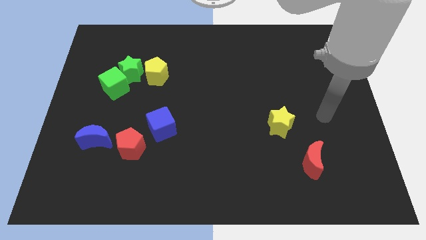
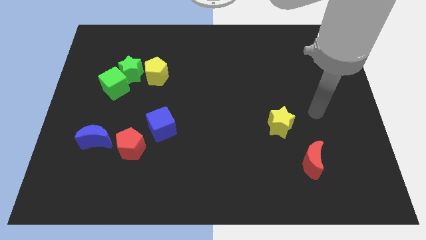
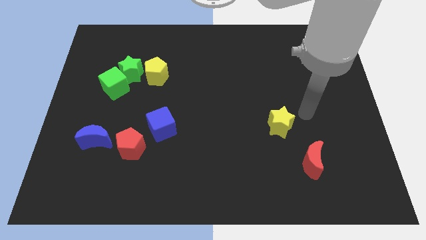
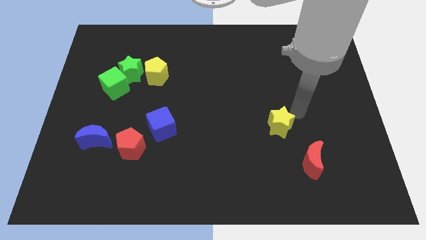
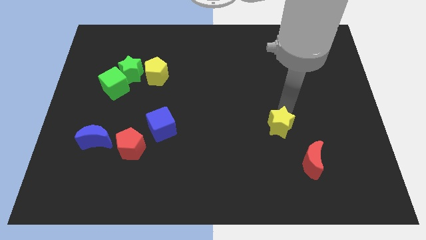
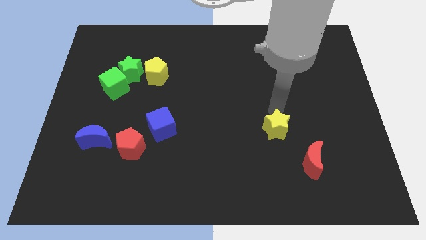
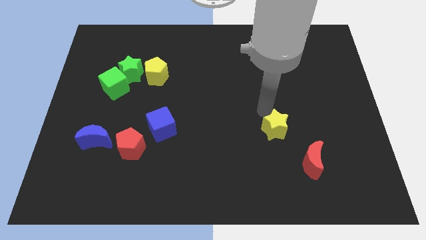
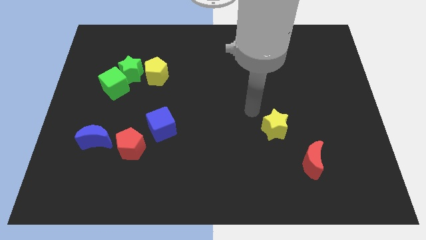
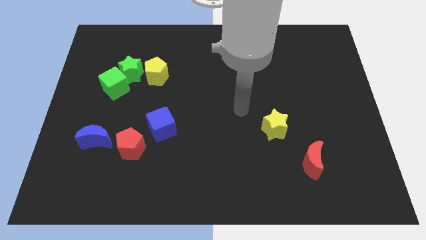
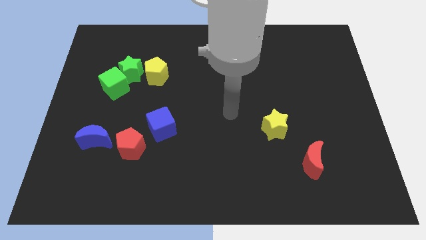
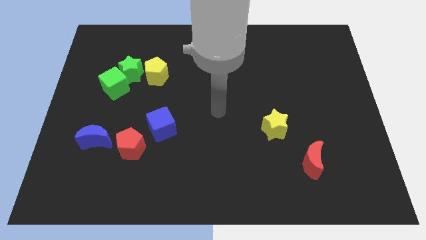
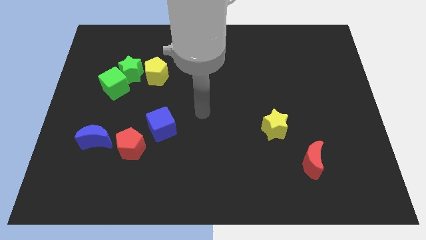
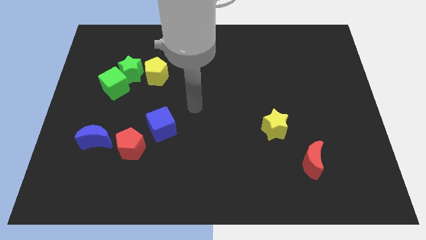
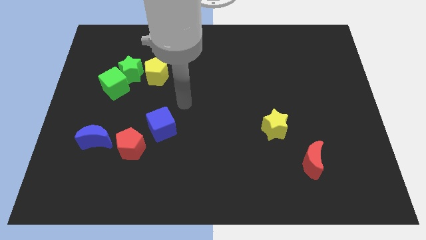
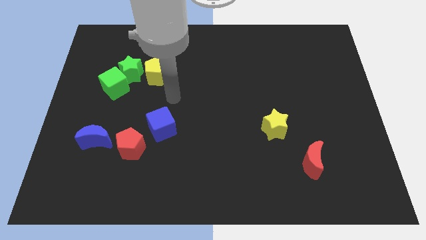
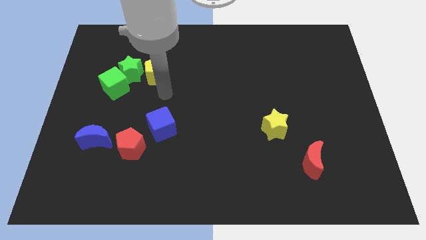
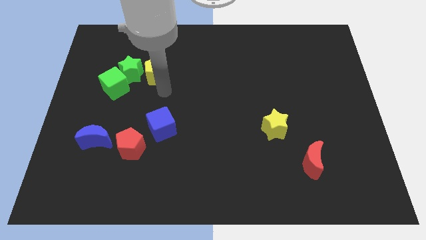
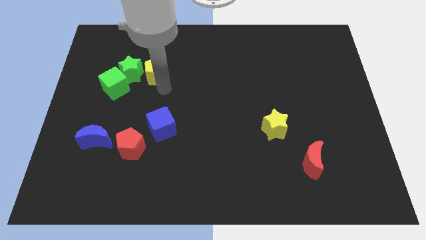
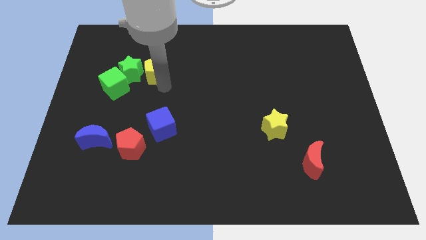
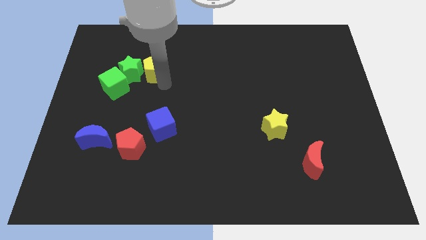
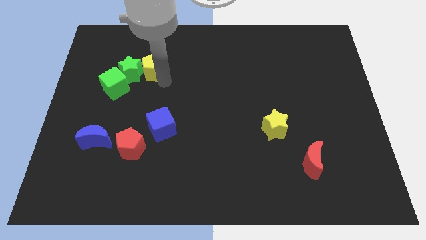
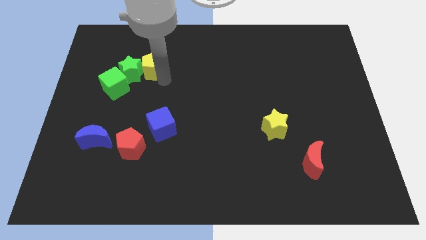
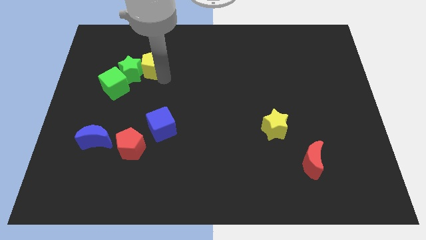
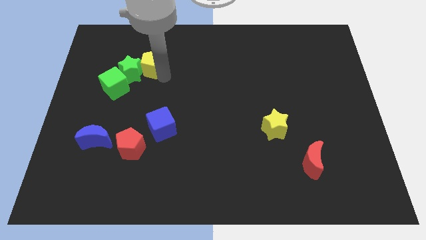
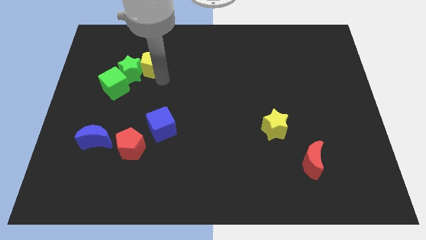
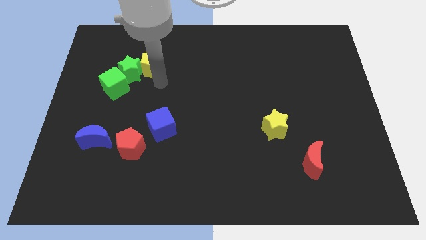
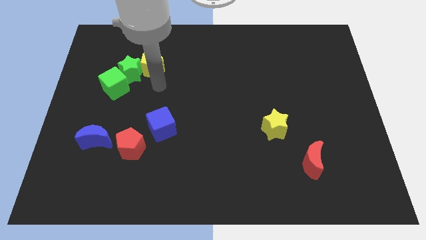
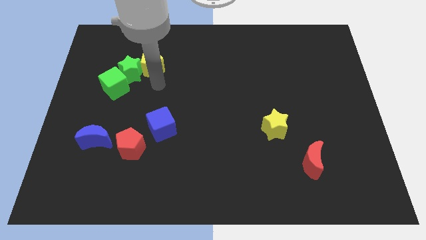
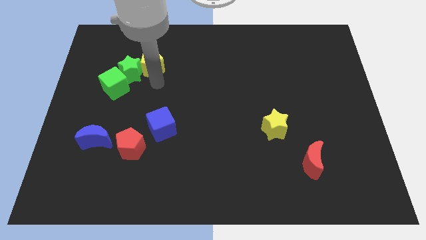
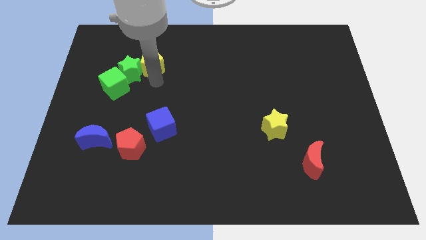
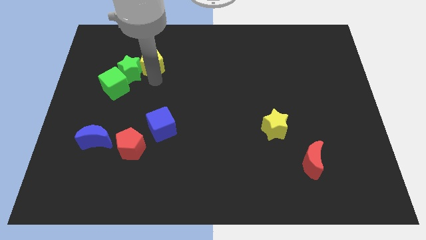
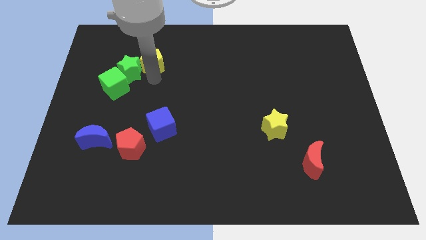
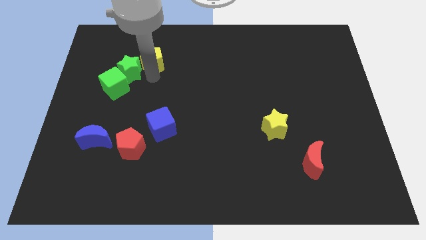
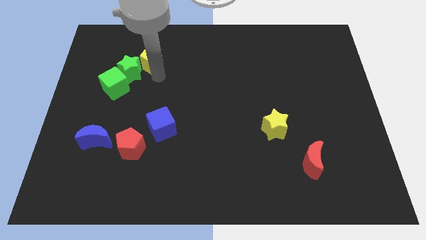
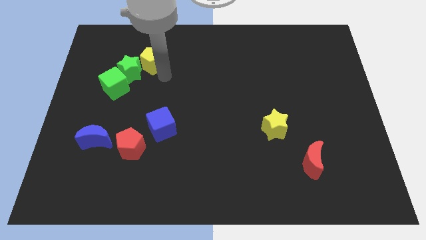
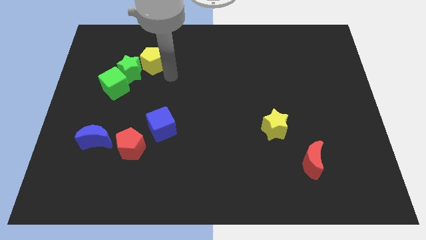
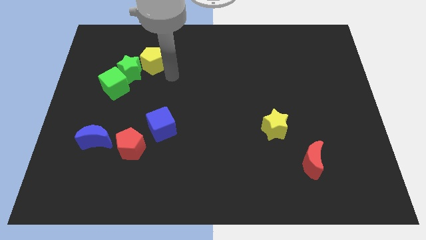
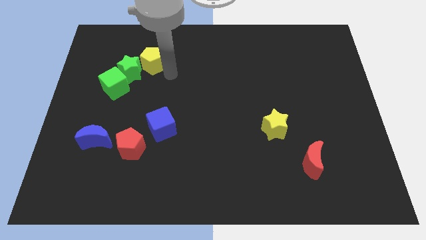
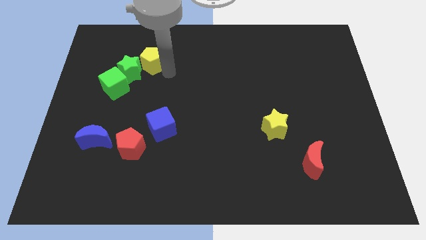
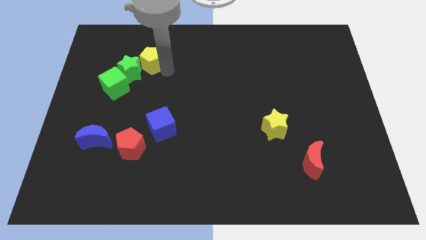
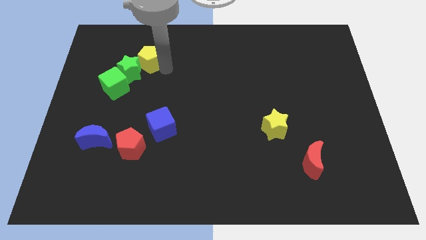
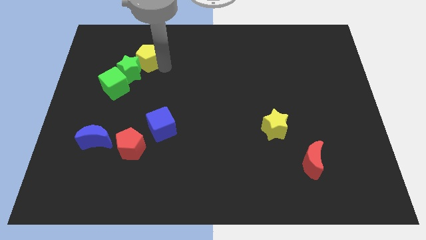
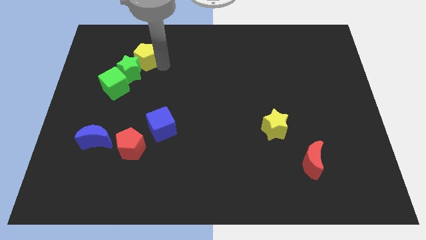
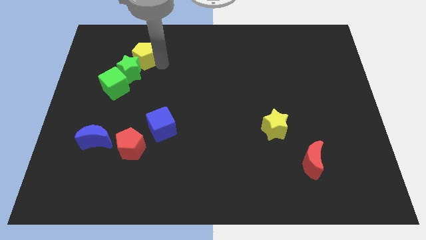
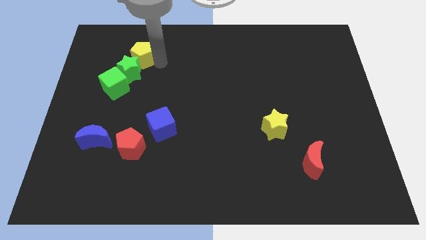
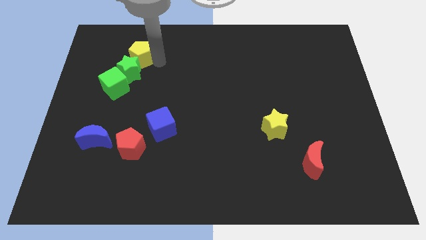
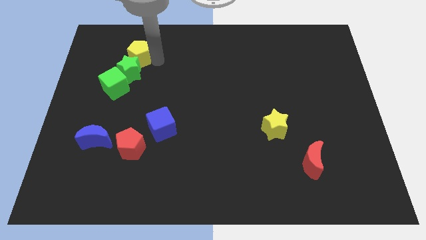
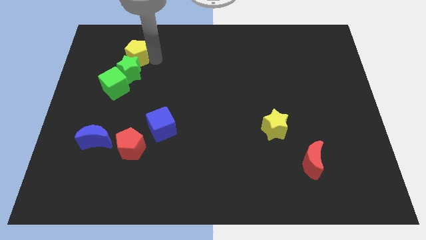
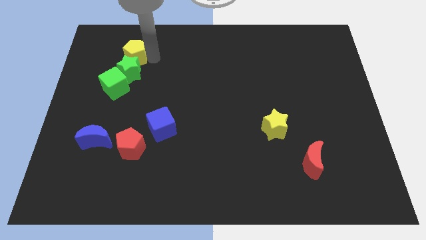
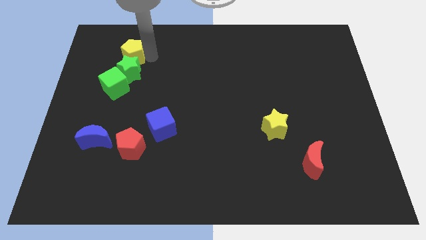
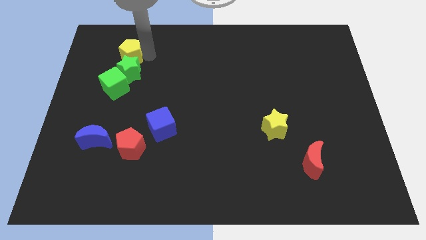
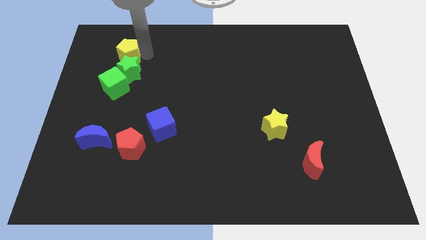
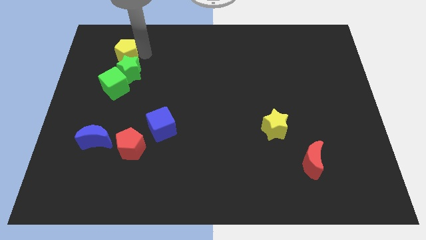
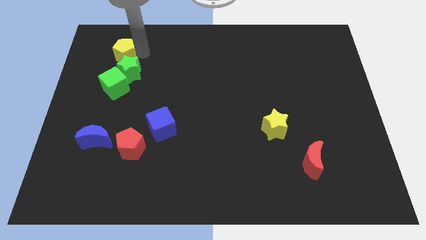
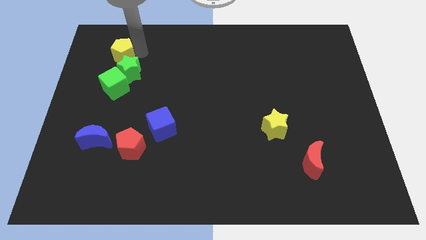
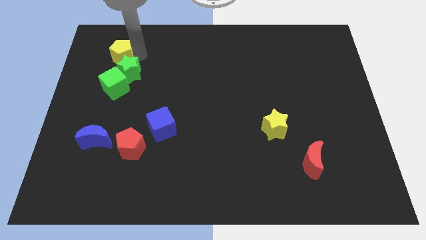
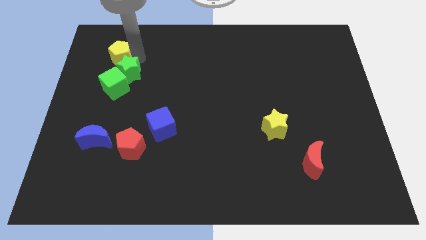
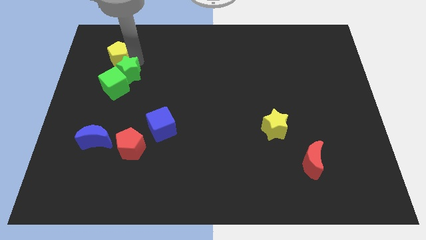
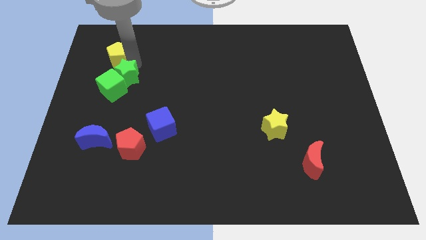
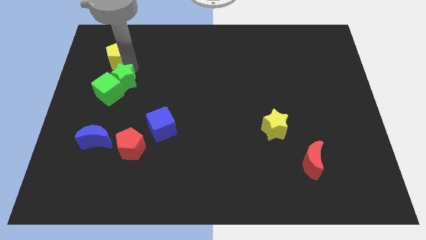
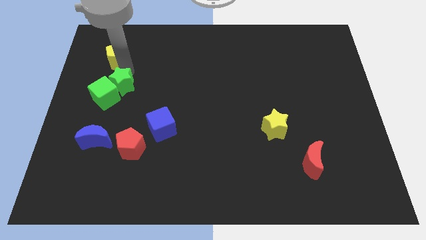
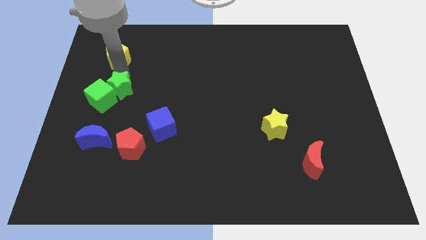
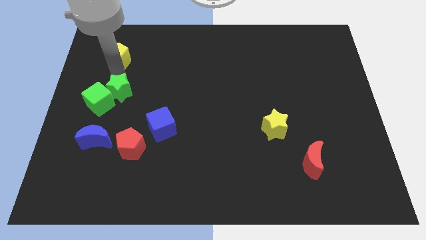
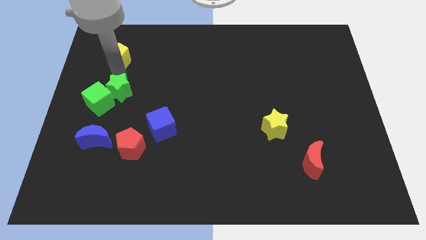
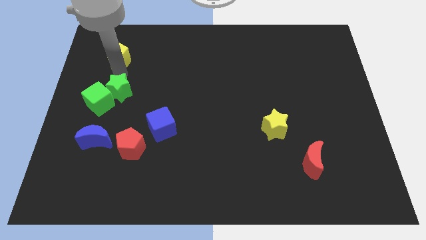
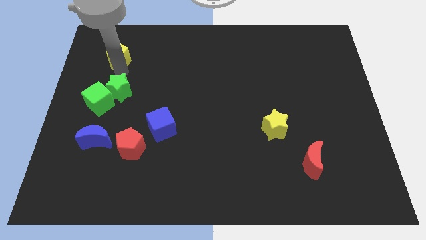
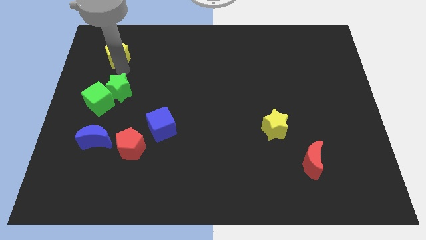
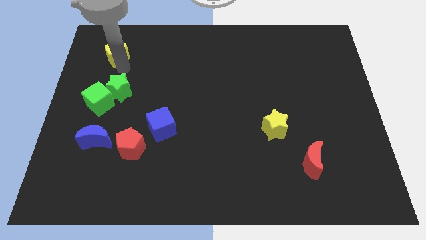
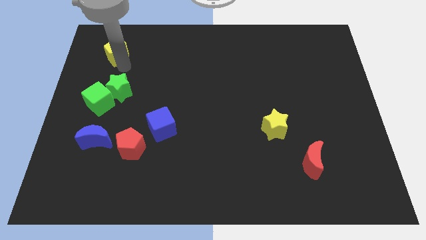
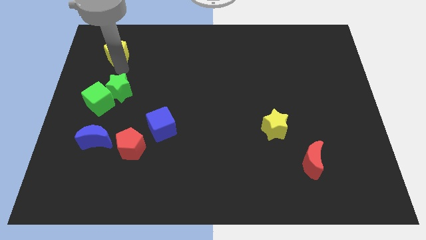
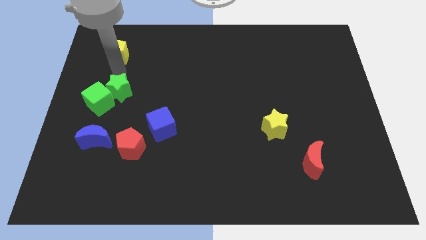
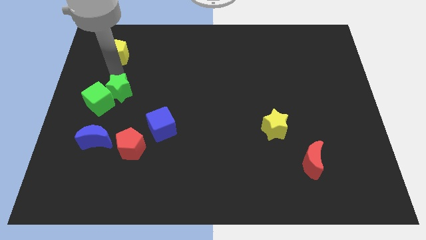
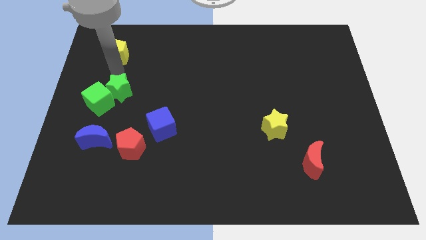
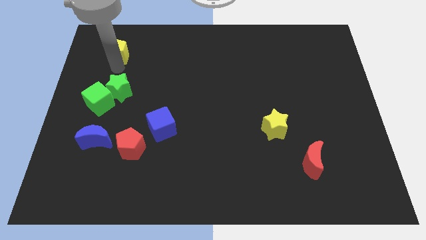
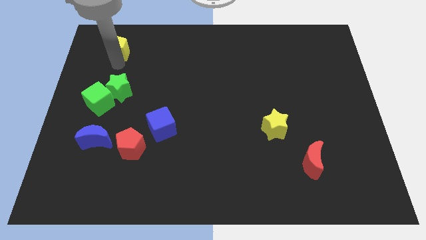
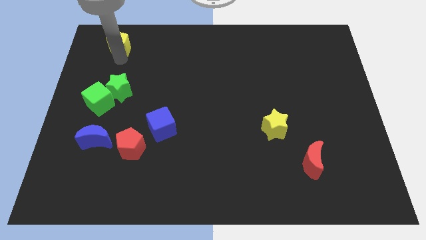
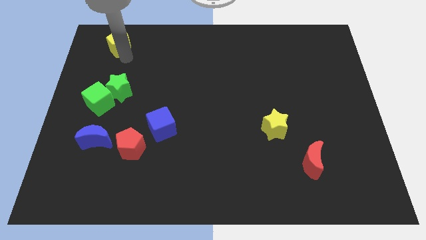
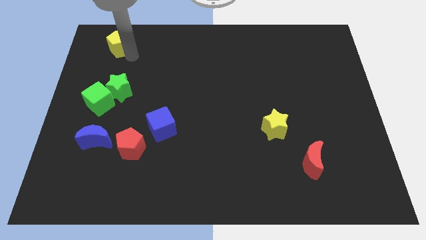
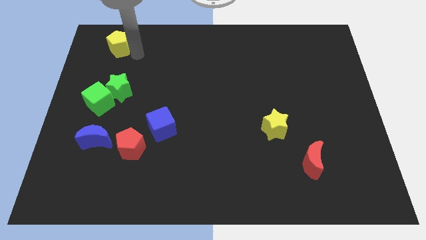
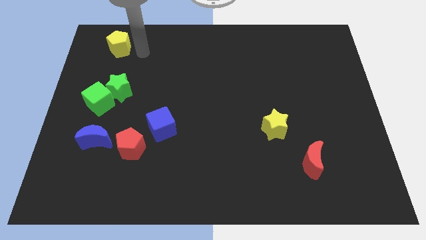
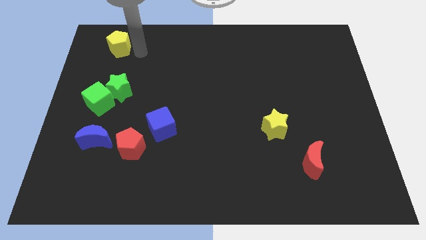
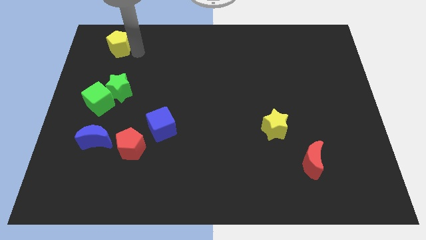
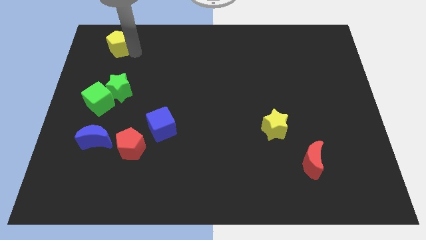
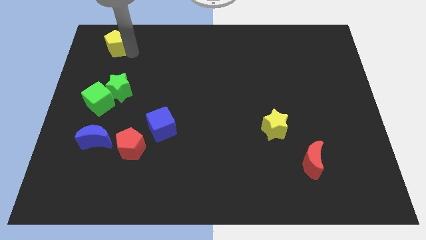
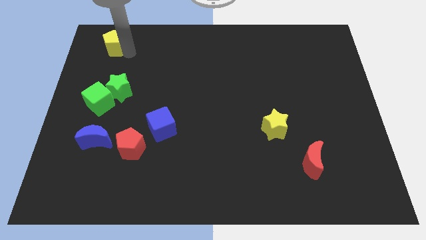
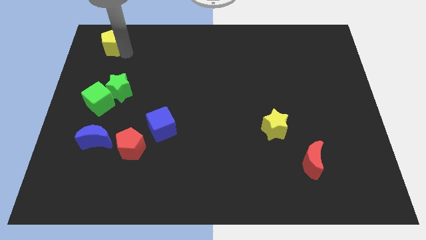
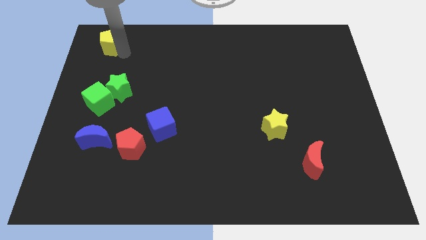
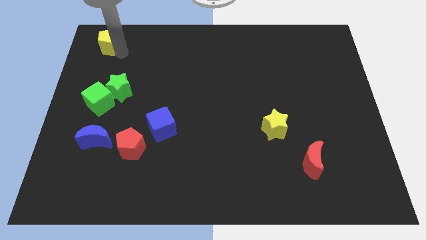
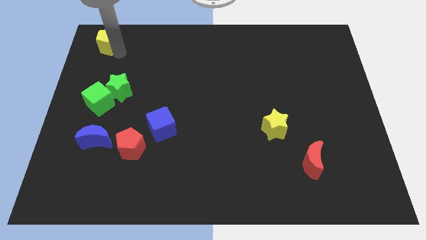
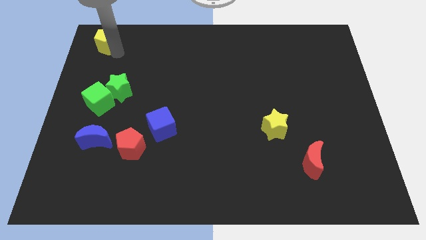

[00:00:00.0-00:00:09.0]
slide the yellow pentagon to the top left of the board
